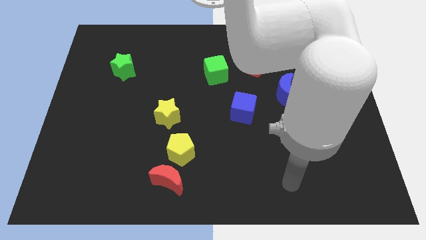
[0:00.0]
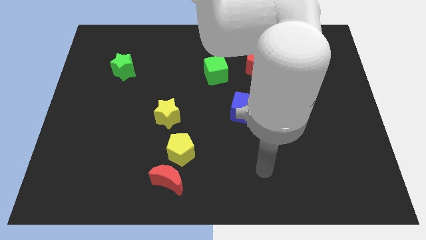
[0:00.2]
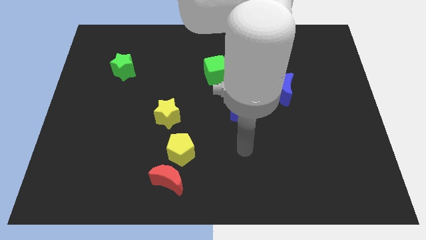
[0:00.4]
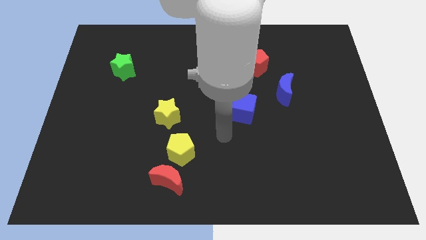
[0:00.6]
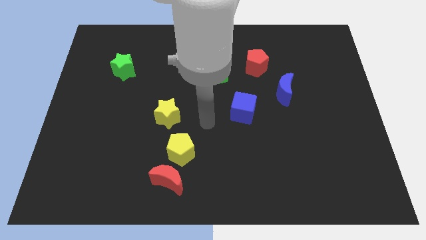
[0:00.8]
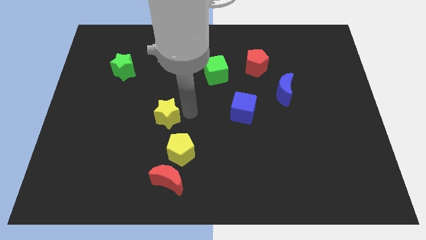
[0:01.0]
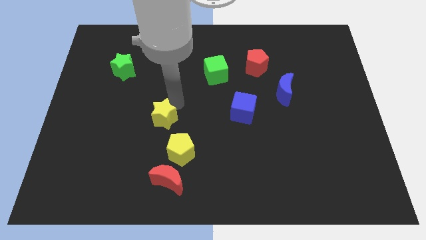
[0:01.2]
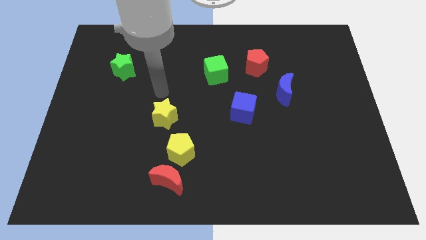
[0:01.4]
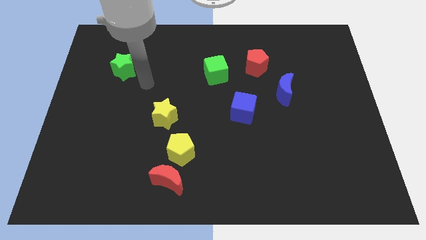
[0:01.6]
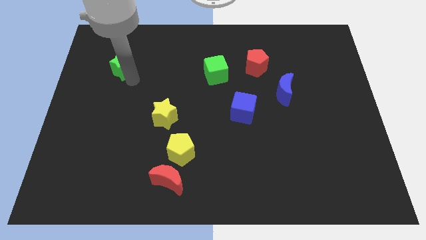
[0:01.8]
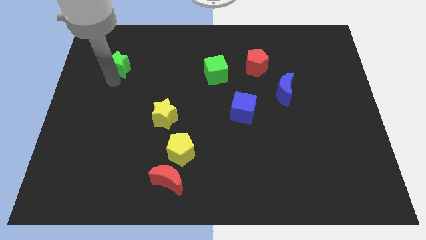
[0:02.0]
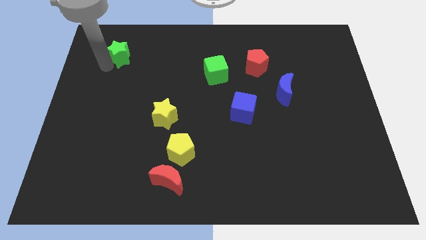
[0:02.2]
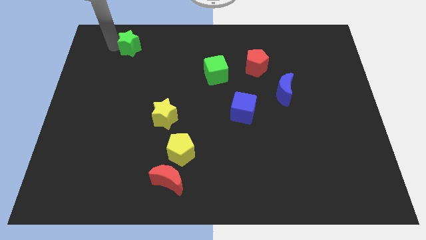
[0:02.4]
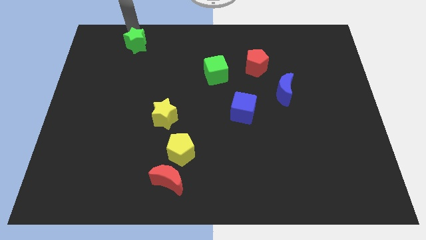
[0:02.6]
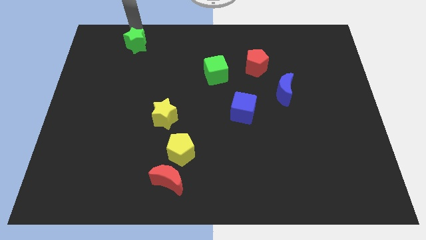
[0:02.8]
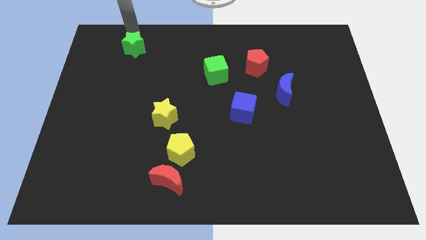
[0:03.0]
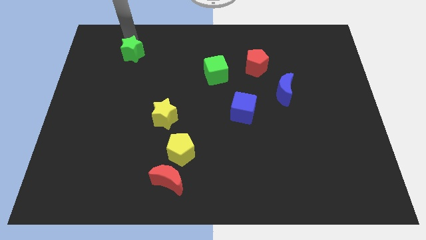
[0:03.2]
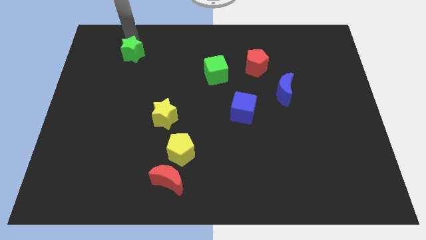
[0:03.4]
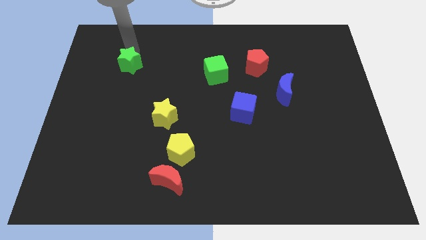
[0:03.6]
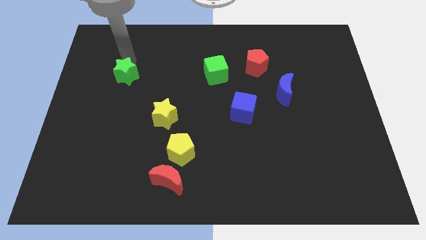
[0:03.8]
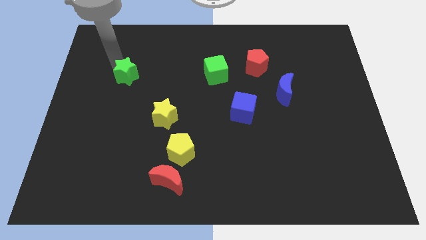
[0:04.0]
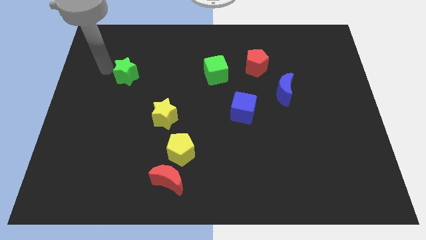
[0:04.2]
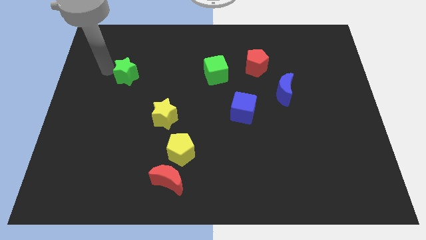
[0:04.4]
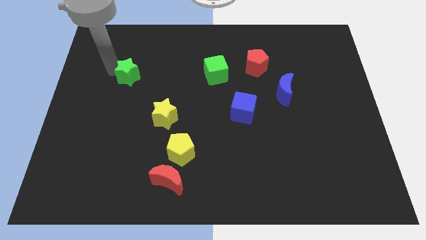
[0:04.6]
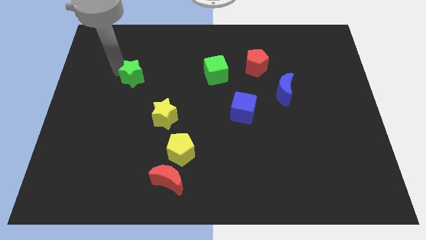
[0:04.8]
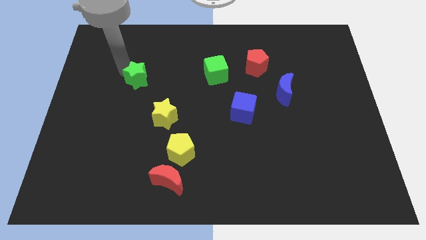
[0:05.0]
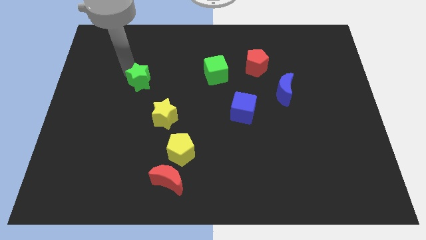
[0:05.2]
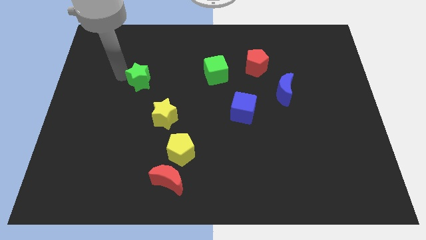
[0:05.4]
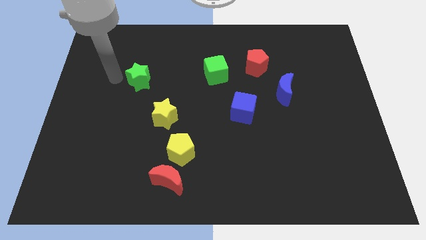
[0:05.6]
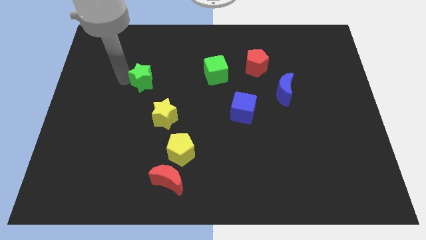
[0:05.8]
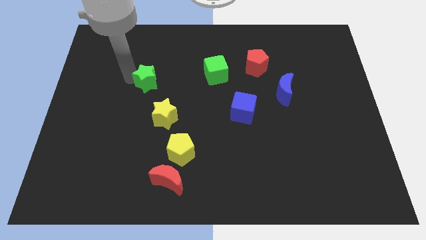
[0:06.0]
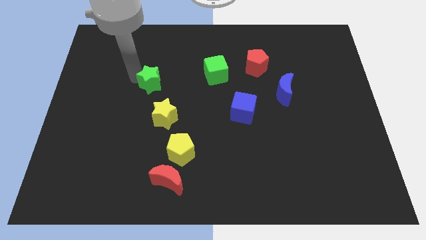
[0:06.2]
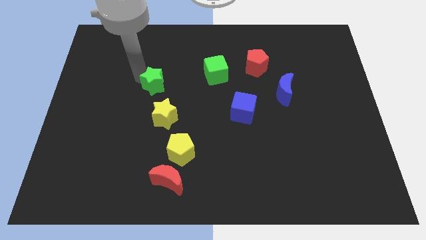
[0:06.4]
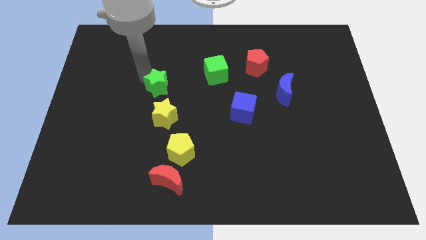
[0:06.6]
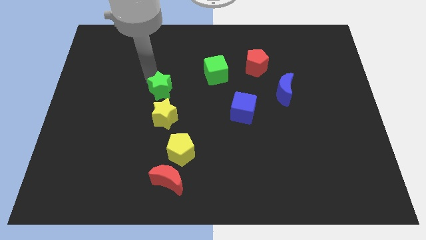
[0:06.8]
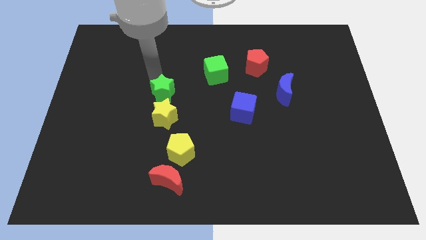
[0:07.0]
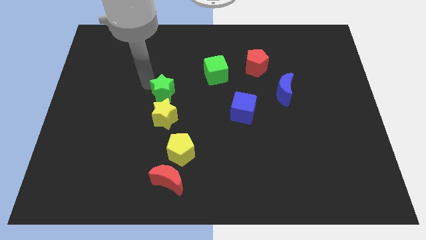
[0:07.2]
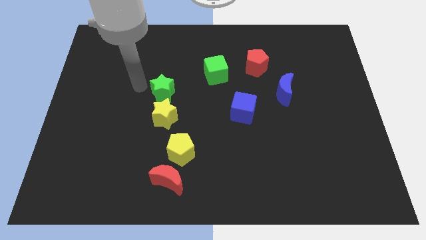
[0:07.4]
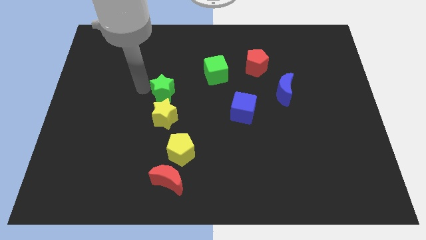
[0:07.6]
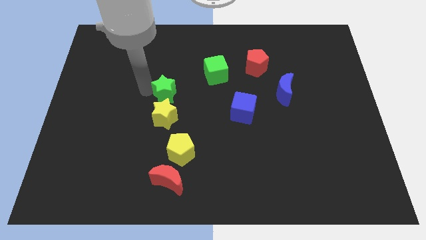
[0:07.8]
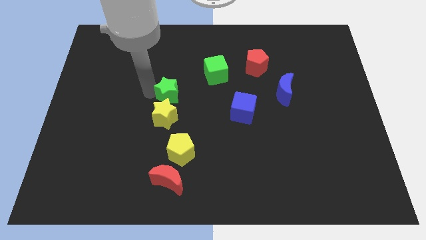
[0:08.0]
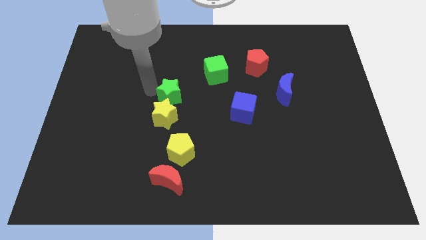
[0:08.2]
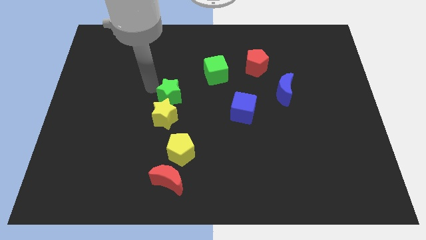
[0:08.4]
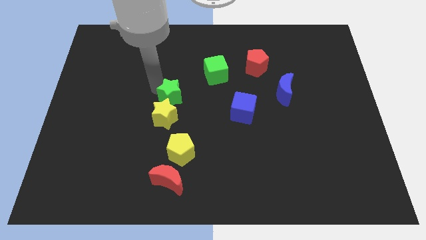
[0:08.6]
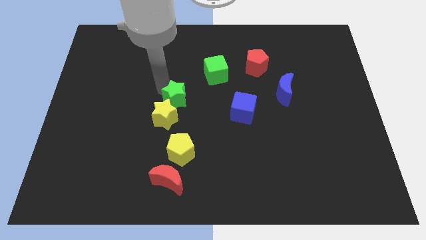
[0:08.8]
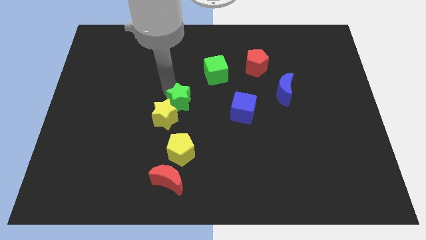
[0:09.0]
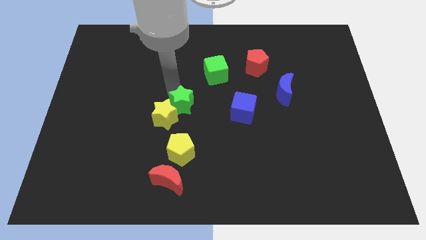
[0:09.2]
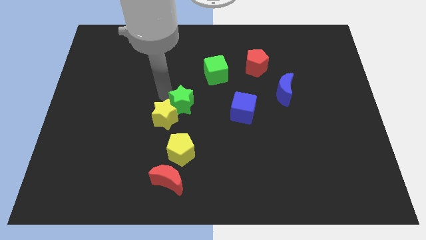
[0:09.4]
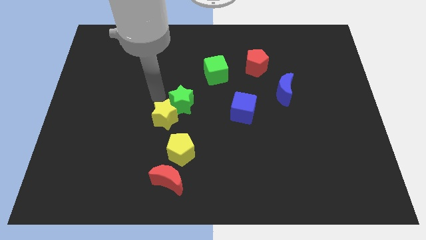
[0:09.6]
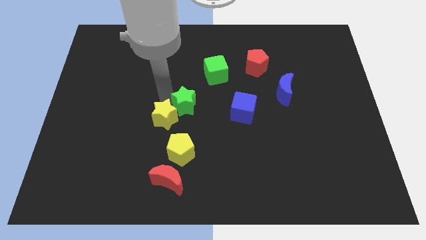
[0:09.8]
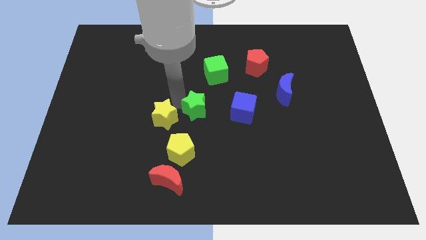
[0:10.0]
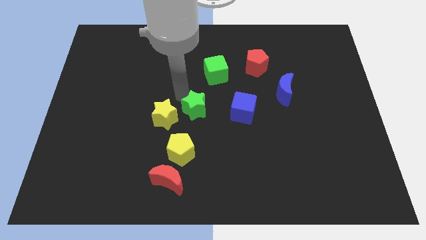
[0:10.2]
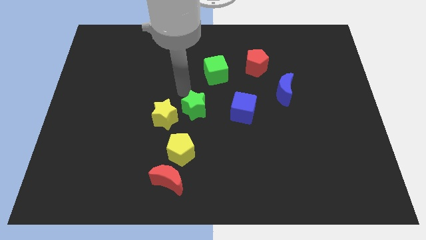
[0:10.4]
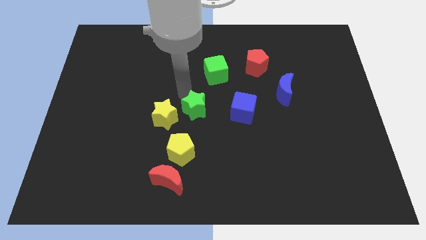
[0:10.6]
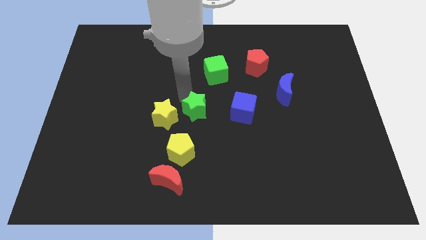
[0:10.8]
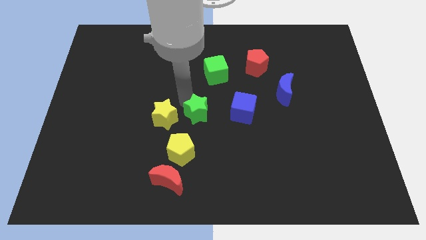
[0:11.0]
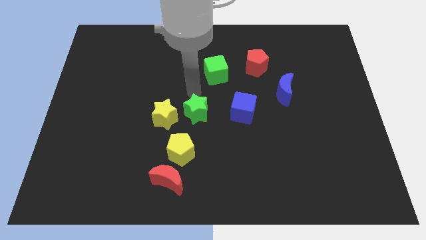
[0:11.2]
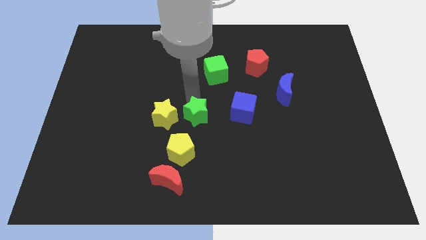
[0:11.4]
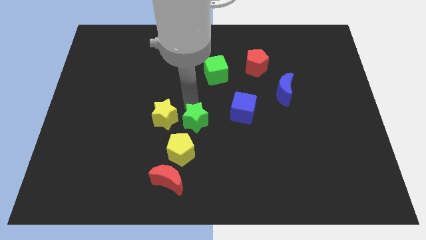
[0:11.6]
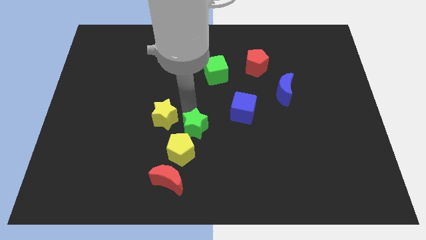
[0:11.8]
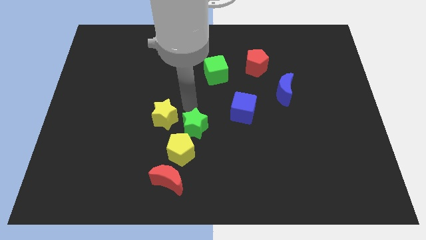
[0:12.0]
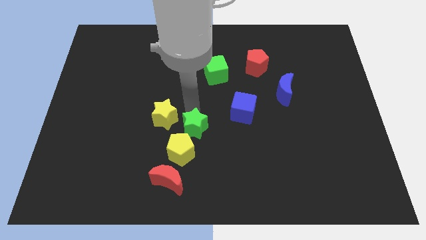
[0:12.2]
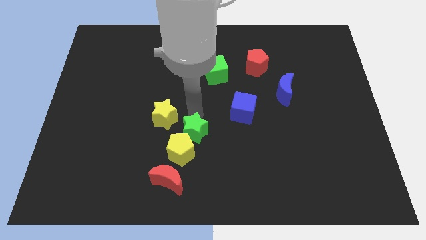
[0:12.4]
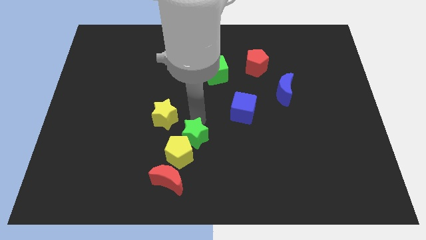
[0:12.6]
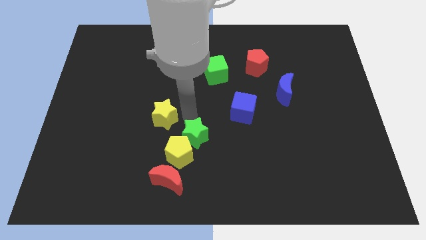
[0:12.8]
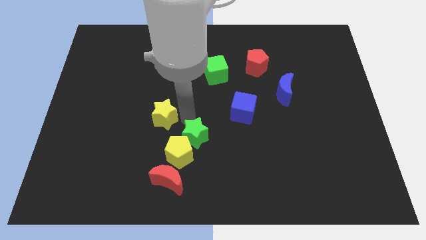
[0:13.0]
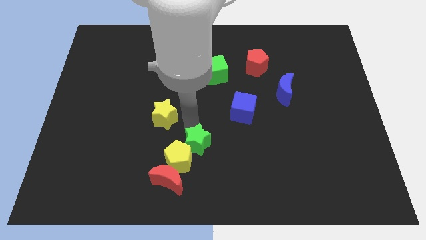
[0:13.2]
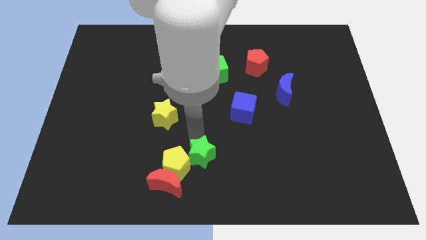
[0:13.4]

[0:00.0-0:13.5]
slide the green star to the bottom
